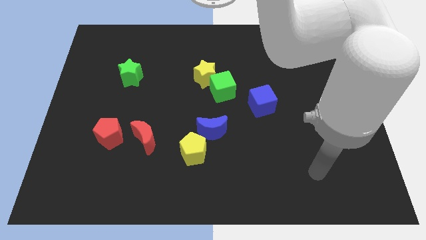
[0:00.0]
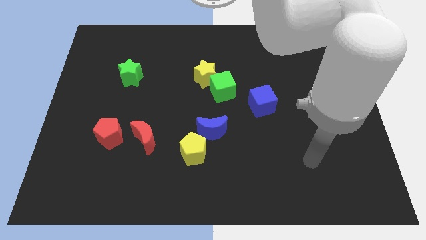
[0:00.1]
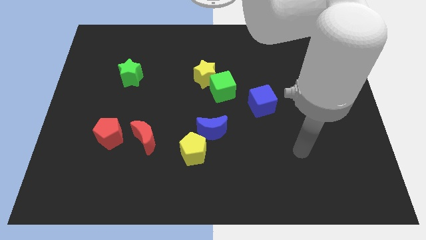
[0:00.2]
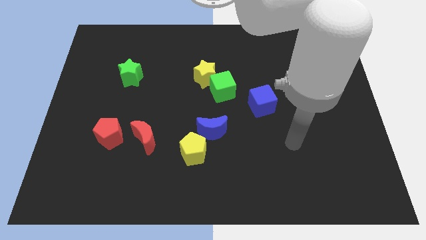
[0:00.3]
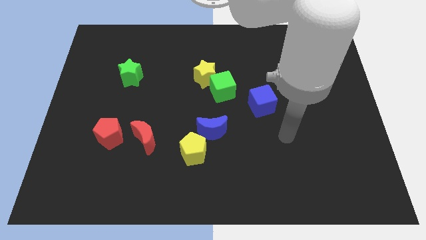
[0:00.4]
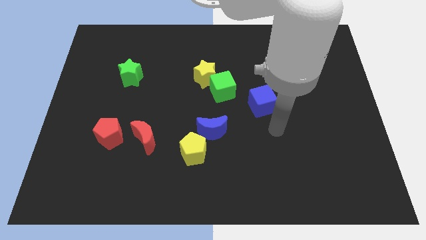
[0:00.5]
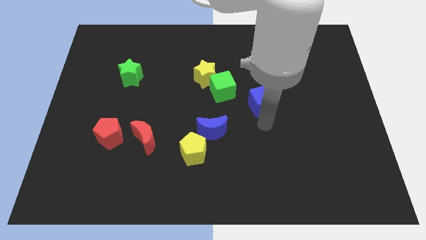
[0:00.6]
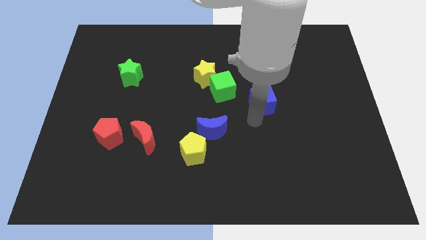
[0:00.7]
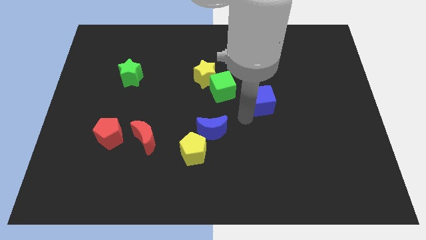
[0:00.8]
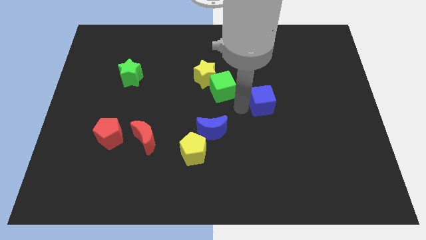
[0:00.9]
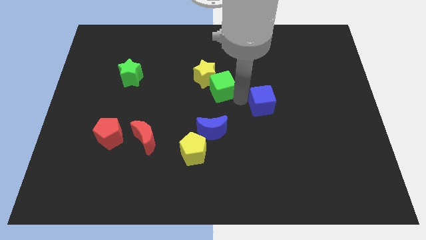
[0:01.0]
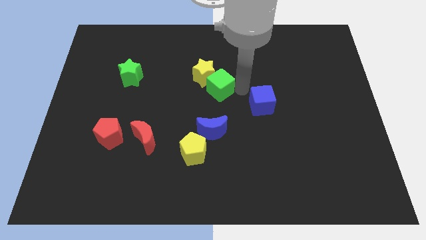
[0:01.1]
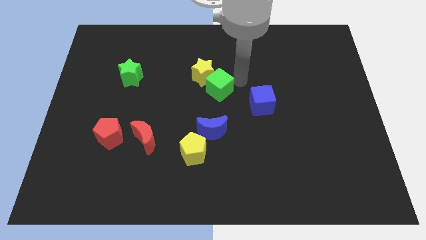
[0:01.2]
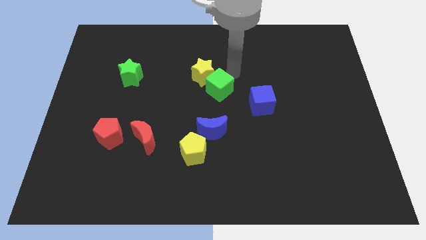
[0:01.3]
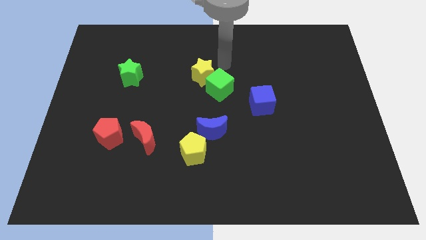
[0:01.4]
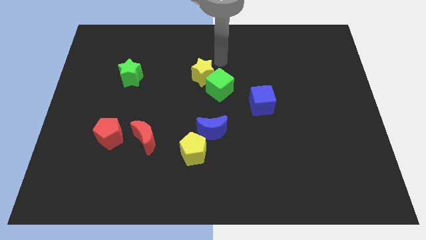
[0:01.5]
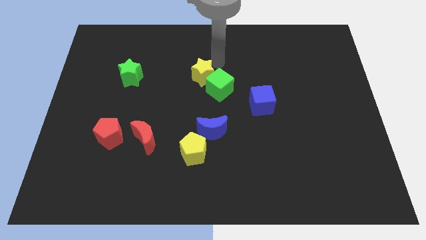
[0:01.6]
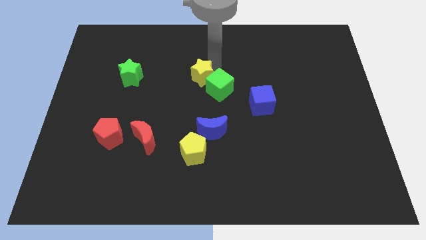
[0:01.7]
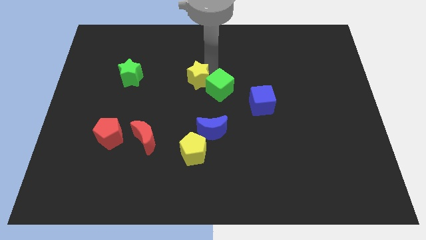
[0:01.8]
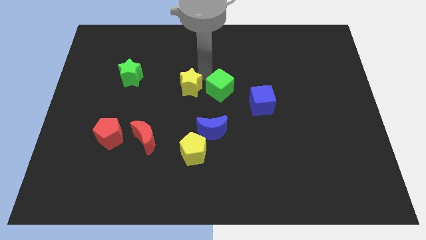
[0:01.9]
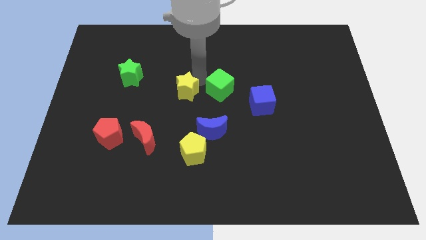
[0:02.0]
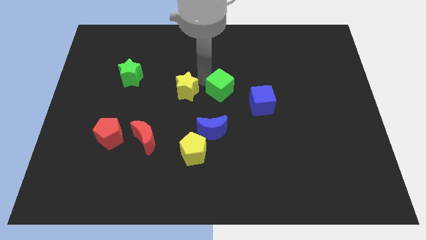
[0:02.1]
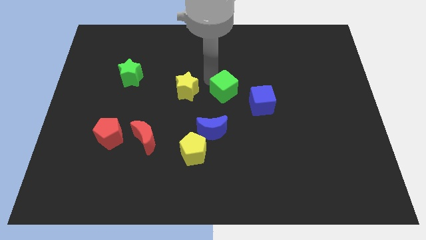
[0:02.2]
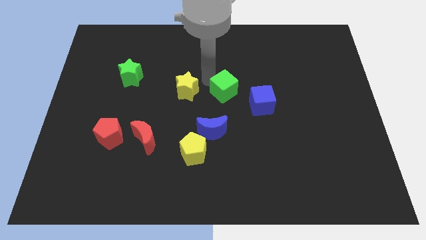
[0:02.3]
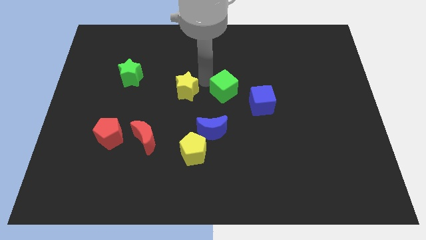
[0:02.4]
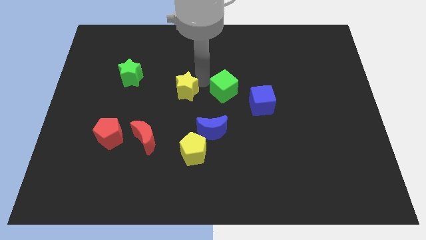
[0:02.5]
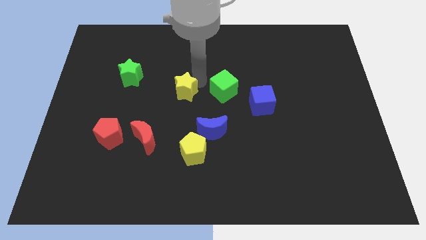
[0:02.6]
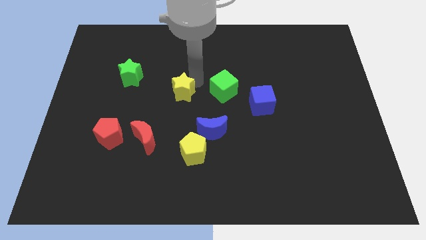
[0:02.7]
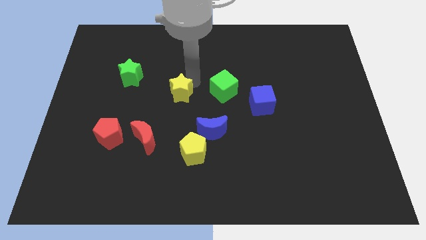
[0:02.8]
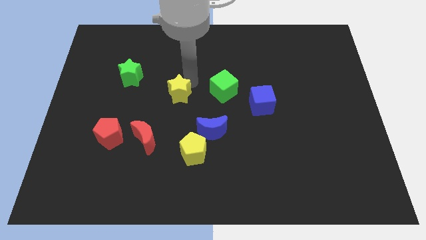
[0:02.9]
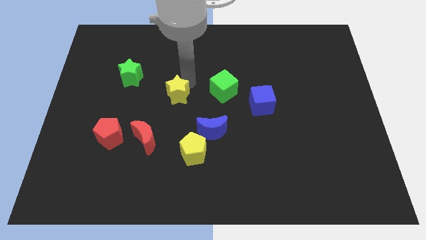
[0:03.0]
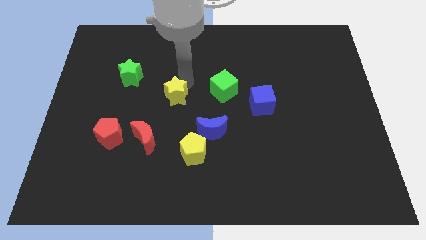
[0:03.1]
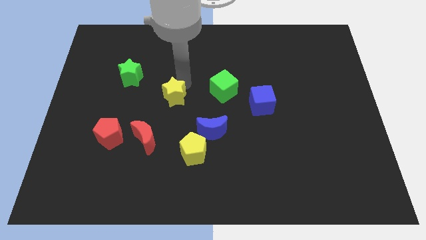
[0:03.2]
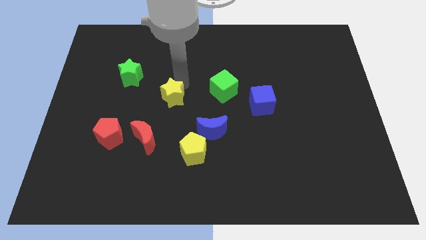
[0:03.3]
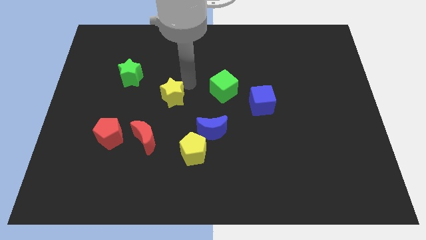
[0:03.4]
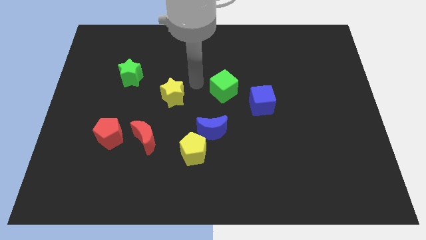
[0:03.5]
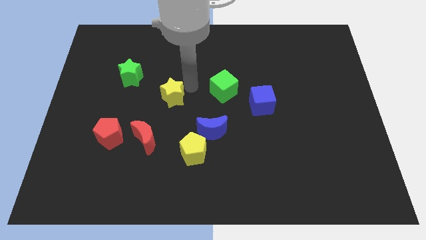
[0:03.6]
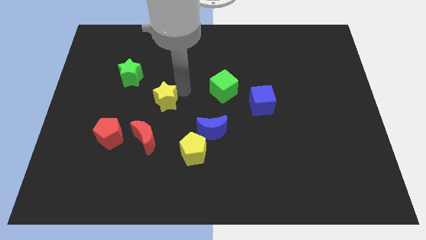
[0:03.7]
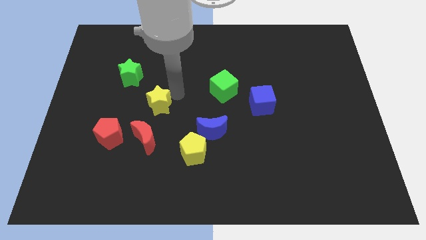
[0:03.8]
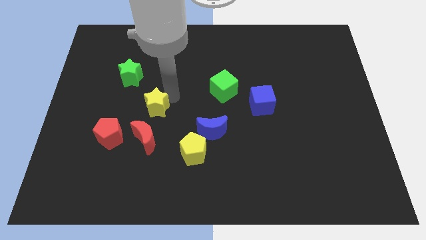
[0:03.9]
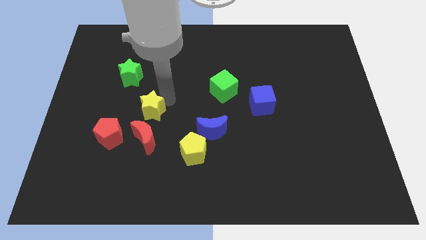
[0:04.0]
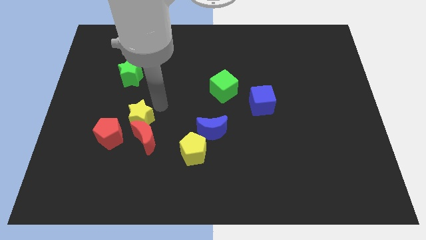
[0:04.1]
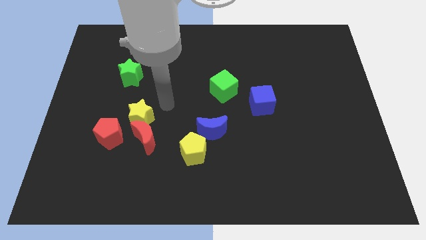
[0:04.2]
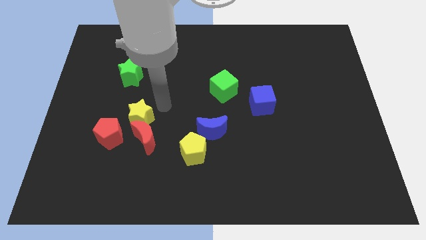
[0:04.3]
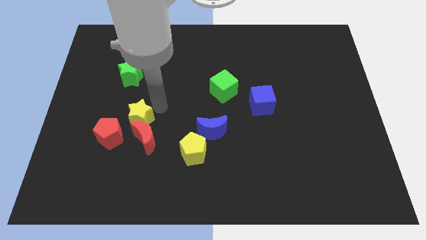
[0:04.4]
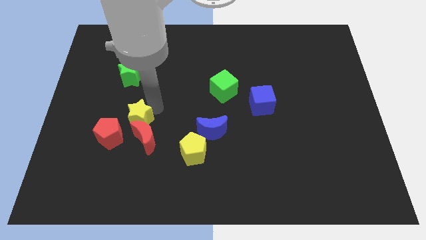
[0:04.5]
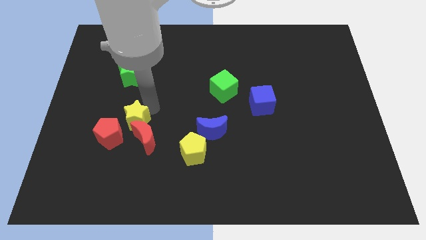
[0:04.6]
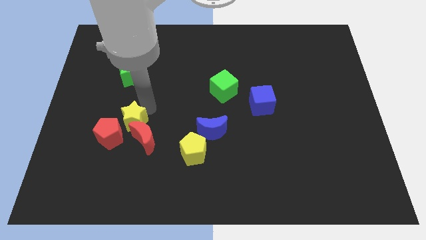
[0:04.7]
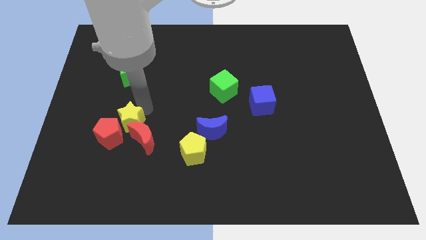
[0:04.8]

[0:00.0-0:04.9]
put the yellow star next to the red pentagon

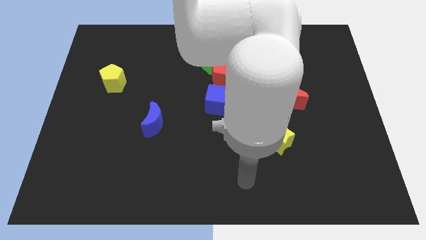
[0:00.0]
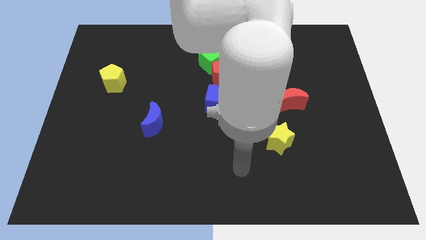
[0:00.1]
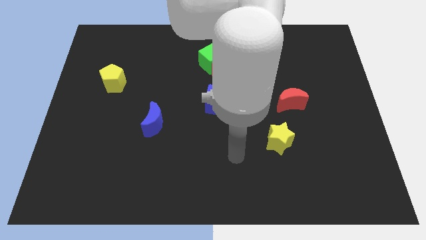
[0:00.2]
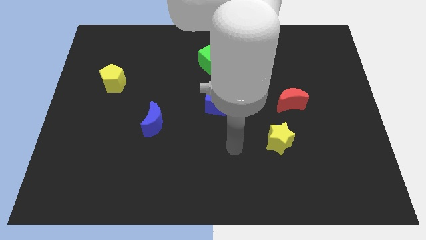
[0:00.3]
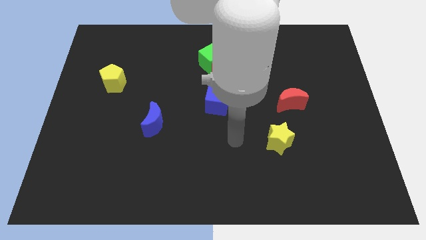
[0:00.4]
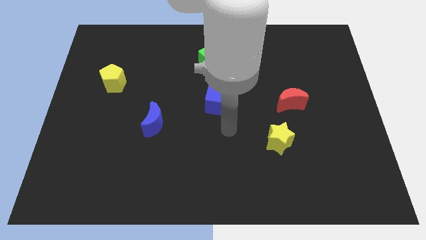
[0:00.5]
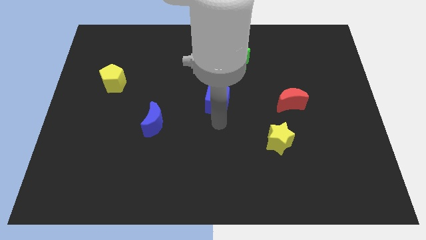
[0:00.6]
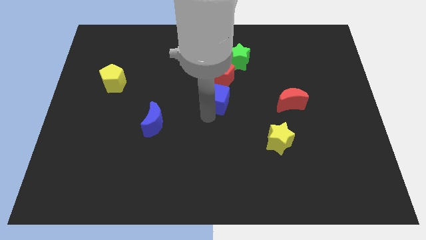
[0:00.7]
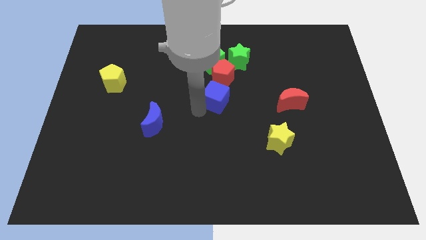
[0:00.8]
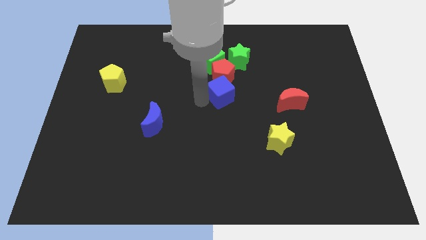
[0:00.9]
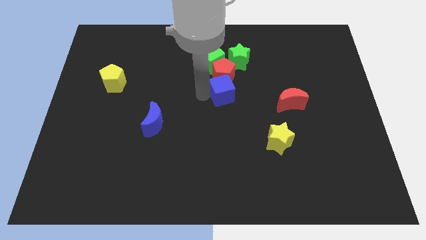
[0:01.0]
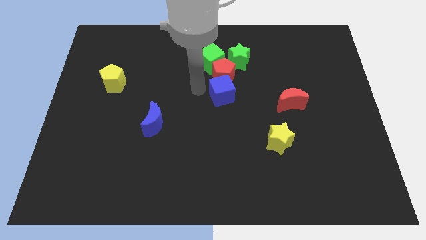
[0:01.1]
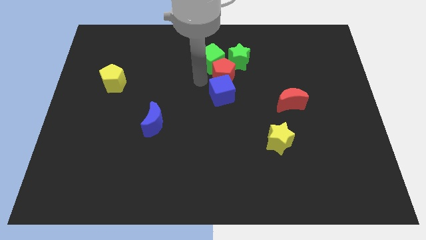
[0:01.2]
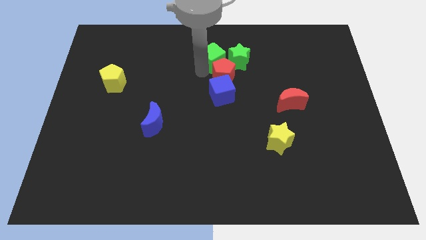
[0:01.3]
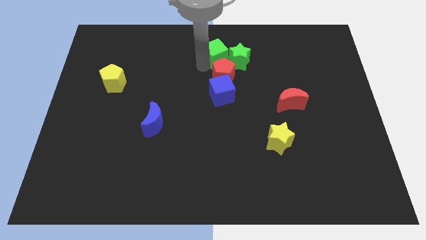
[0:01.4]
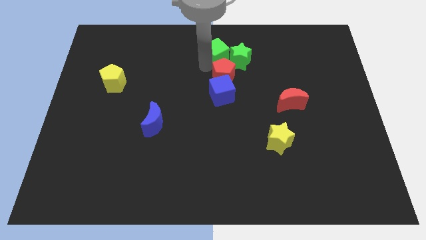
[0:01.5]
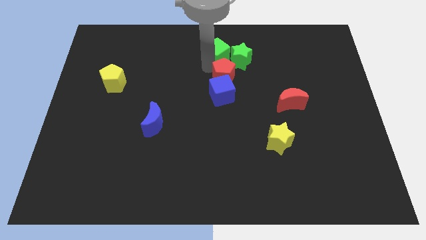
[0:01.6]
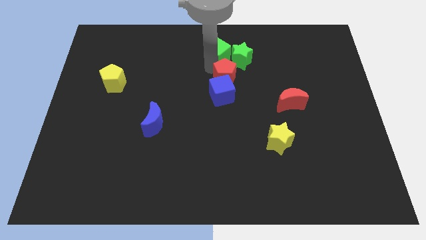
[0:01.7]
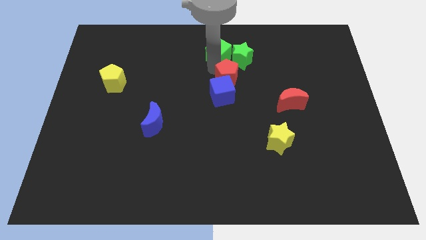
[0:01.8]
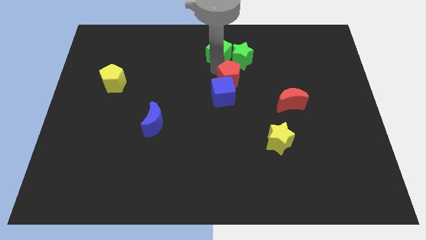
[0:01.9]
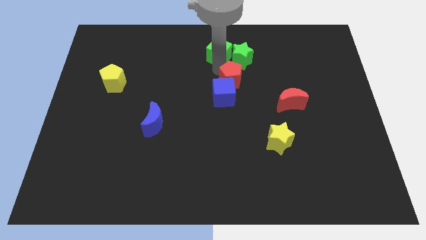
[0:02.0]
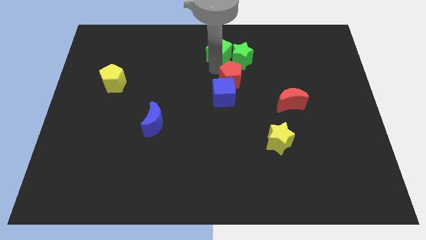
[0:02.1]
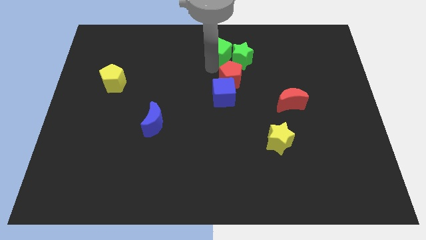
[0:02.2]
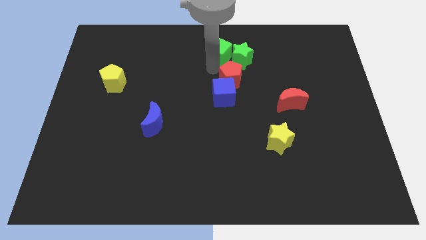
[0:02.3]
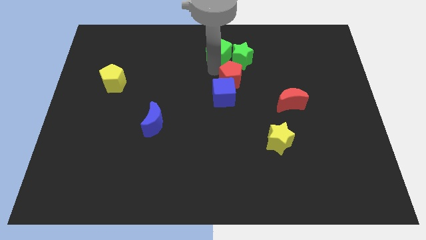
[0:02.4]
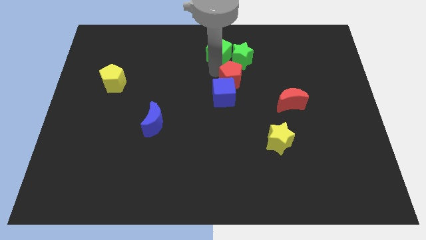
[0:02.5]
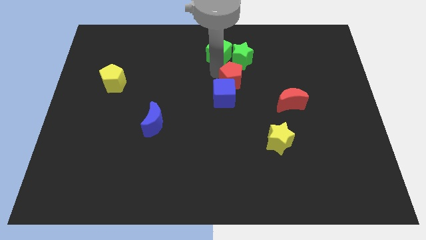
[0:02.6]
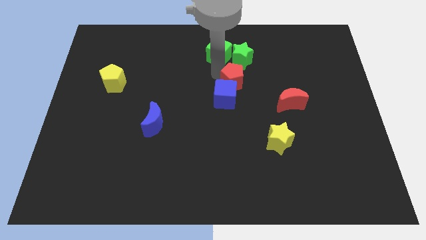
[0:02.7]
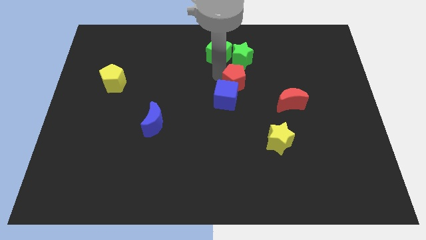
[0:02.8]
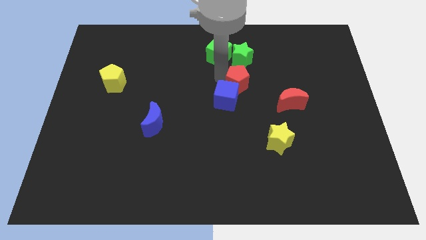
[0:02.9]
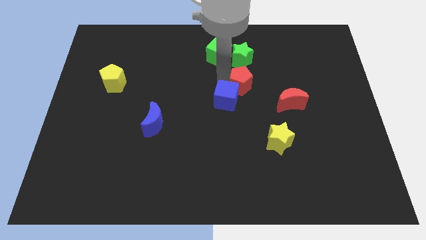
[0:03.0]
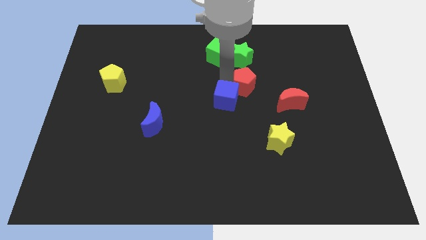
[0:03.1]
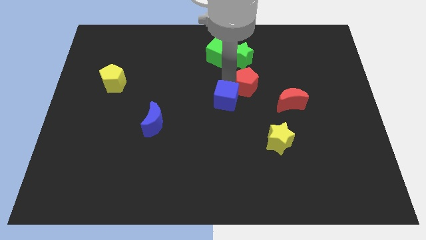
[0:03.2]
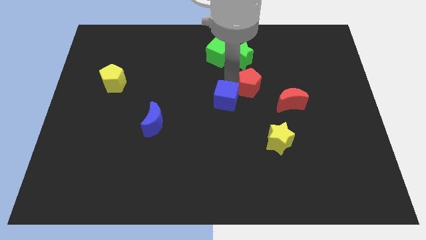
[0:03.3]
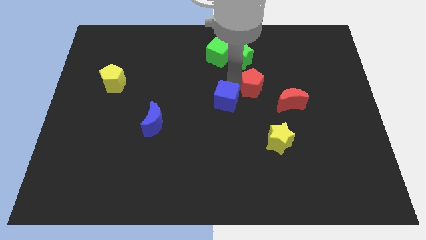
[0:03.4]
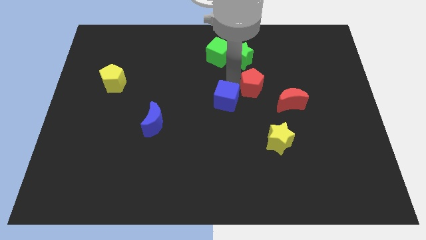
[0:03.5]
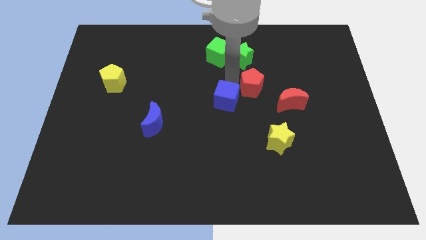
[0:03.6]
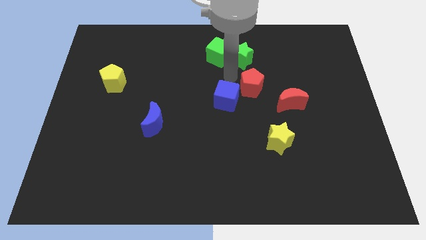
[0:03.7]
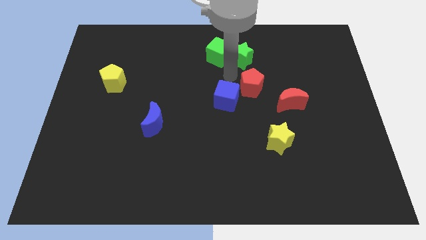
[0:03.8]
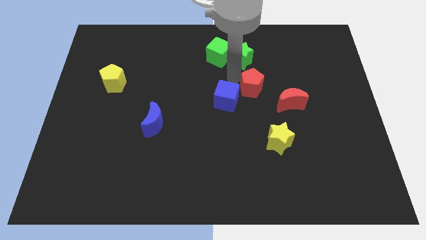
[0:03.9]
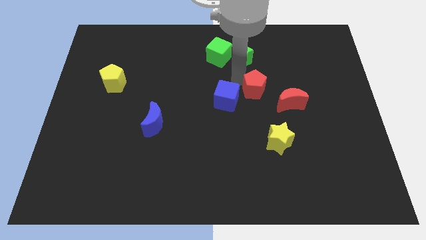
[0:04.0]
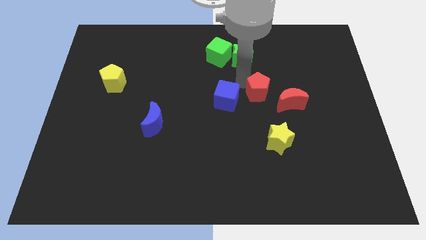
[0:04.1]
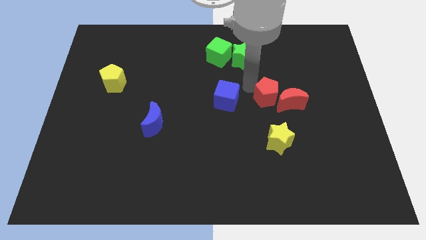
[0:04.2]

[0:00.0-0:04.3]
move the red pentagon to the red moon
